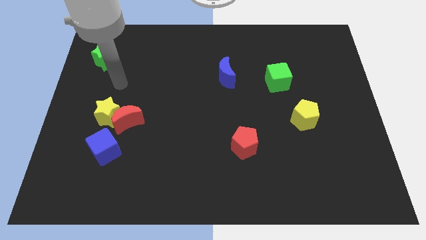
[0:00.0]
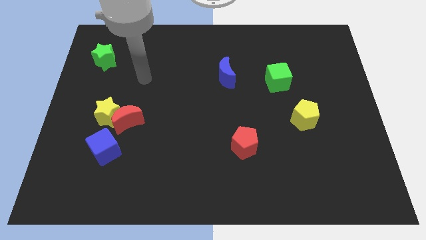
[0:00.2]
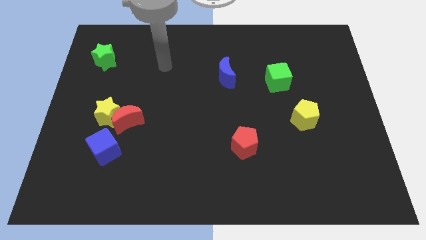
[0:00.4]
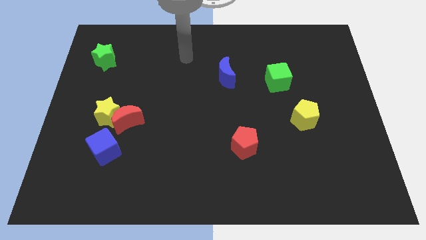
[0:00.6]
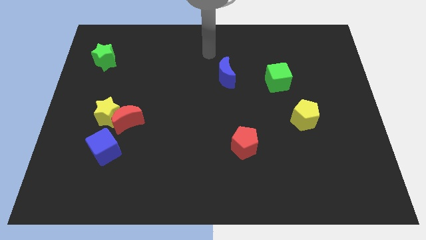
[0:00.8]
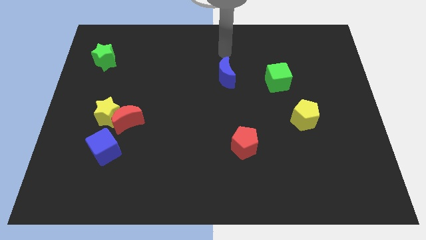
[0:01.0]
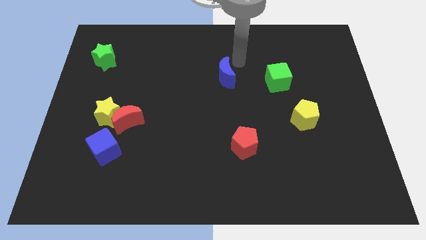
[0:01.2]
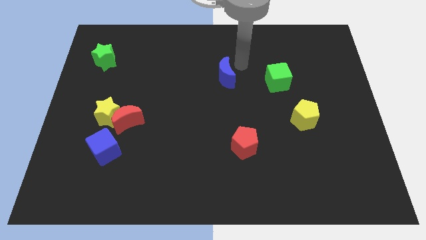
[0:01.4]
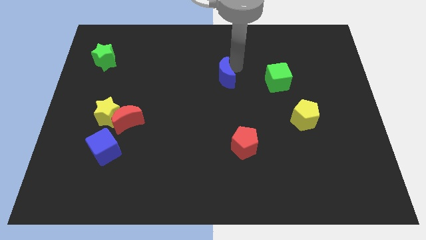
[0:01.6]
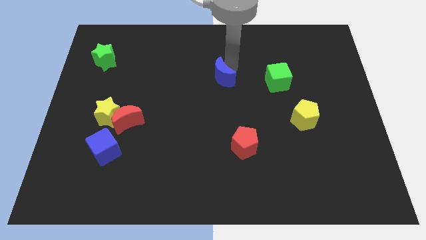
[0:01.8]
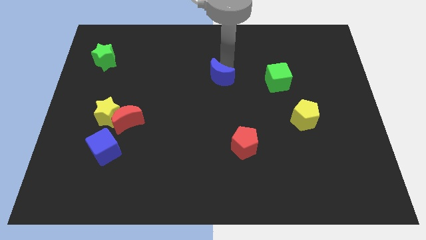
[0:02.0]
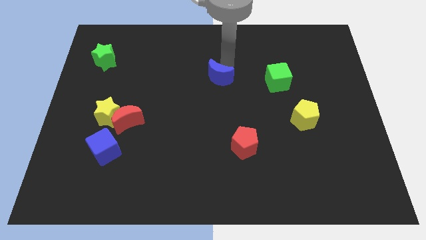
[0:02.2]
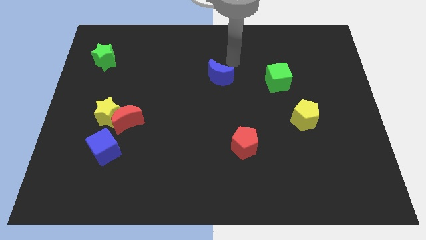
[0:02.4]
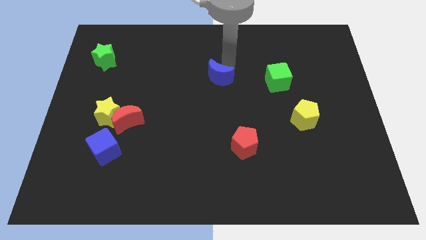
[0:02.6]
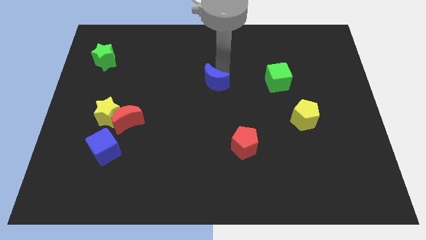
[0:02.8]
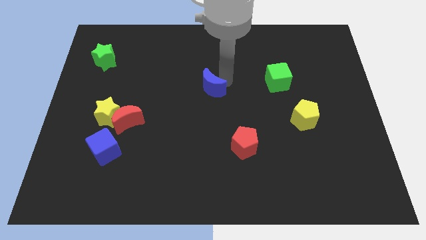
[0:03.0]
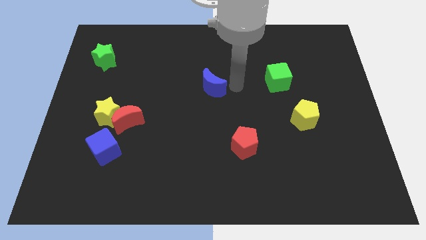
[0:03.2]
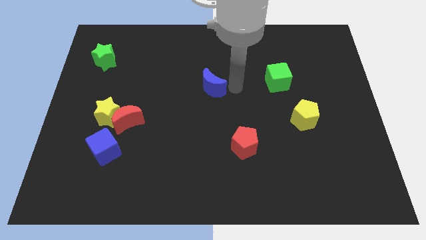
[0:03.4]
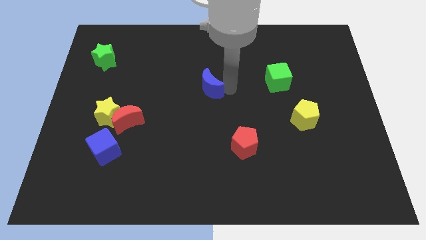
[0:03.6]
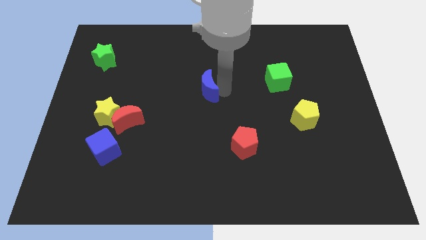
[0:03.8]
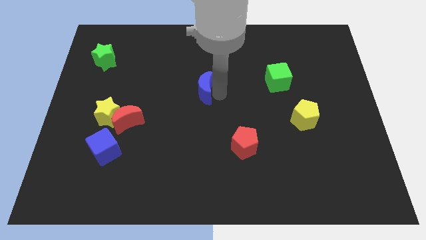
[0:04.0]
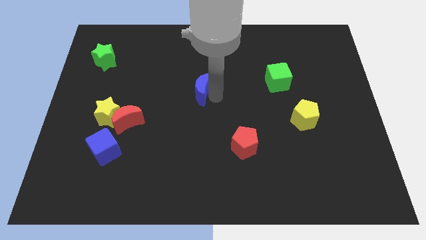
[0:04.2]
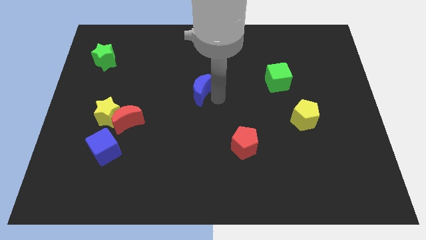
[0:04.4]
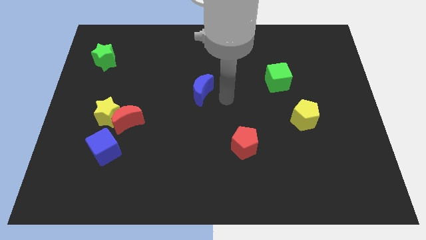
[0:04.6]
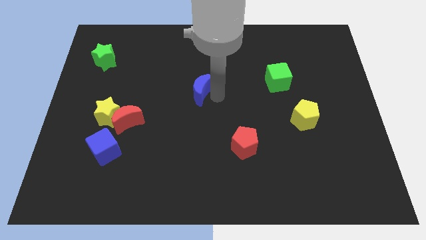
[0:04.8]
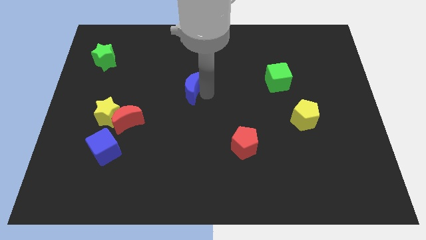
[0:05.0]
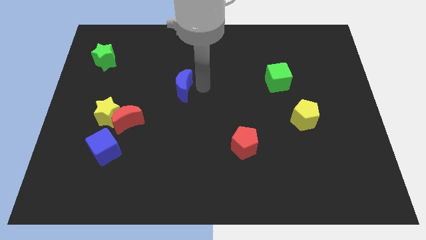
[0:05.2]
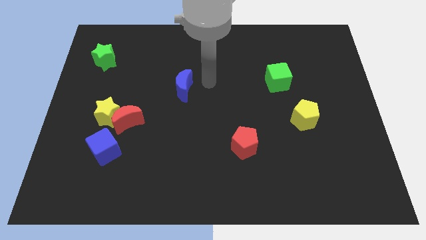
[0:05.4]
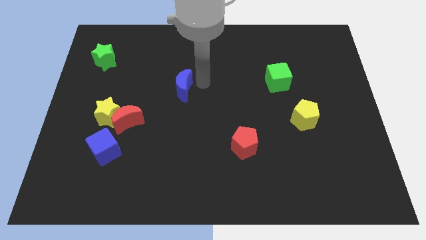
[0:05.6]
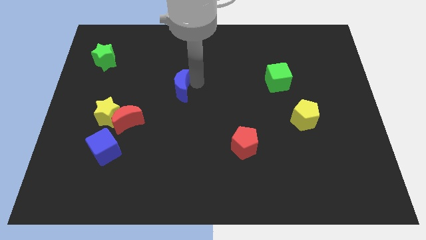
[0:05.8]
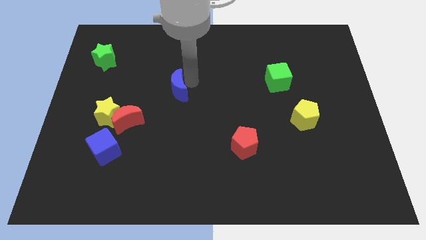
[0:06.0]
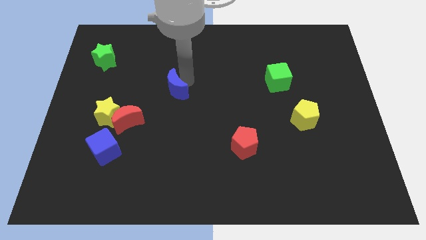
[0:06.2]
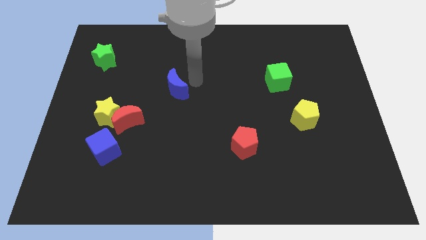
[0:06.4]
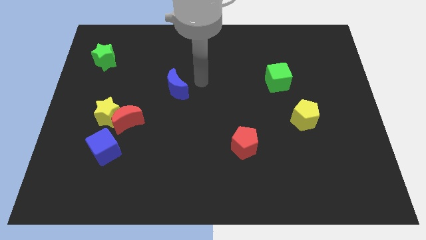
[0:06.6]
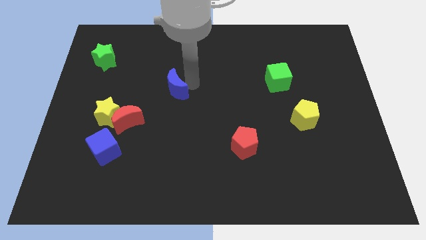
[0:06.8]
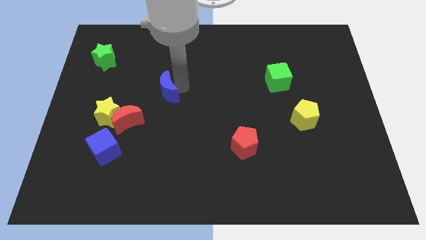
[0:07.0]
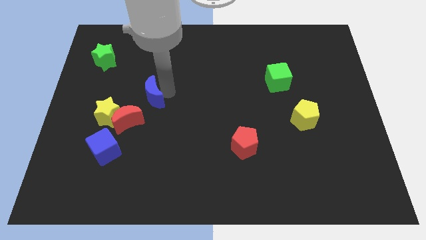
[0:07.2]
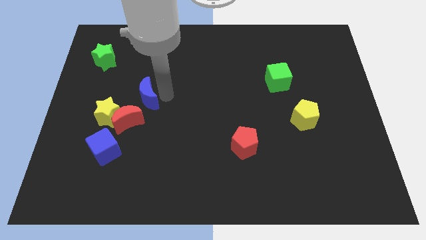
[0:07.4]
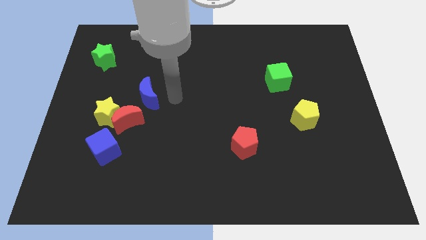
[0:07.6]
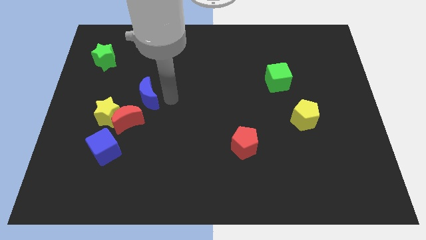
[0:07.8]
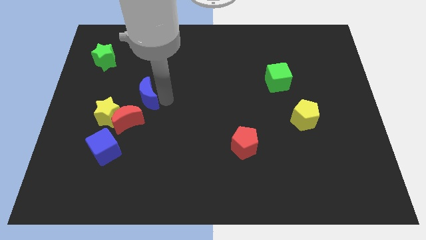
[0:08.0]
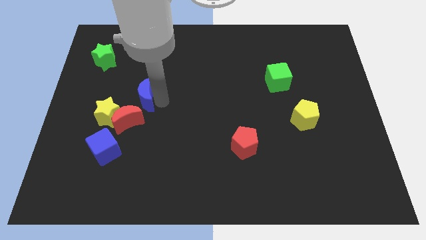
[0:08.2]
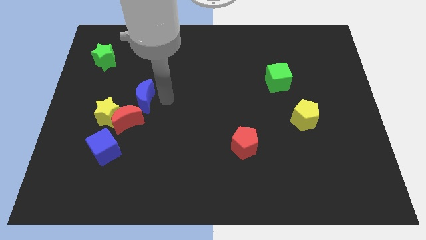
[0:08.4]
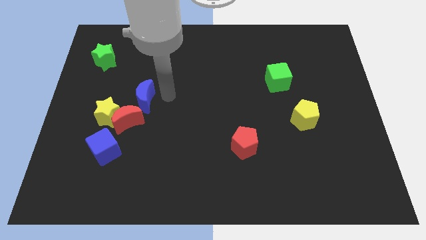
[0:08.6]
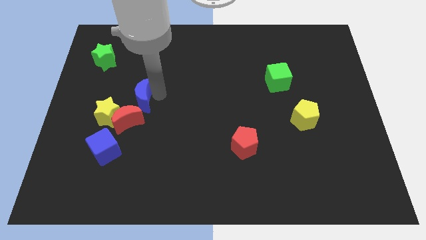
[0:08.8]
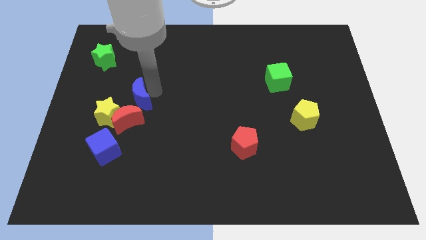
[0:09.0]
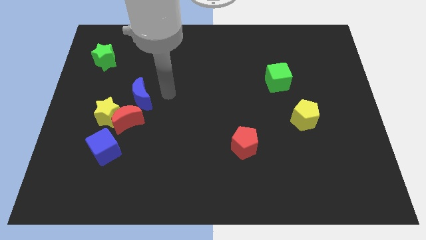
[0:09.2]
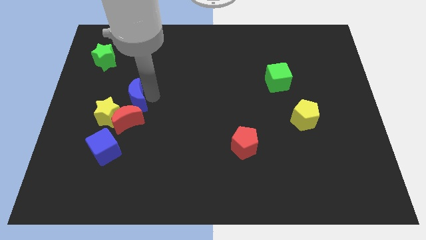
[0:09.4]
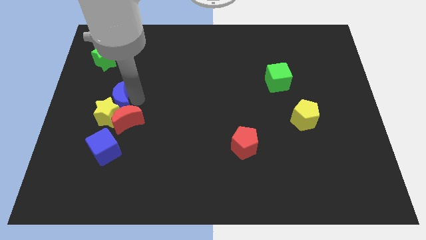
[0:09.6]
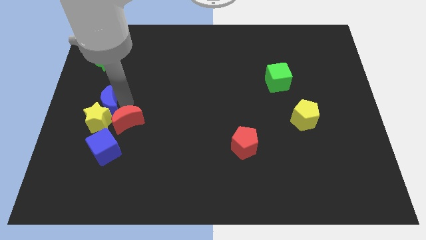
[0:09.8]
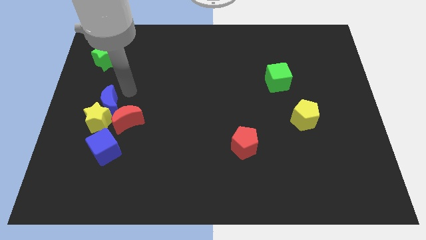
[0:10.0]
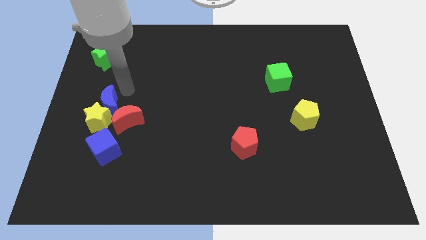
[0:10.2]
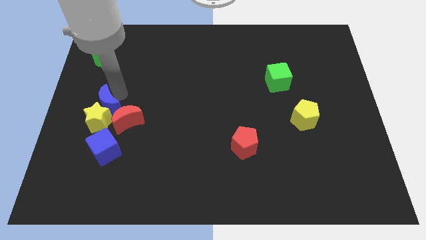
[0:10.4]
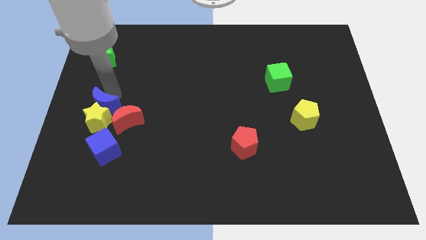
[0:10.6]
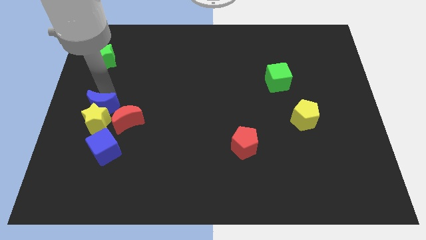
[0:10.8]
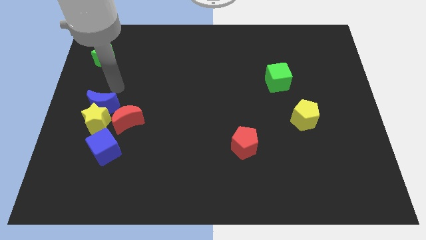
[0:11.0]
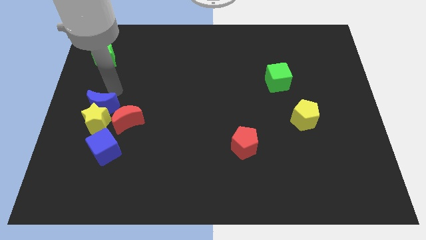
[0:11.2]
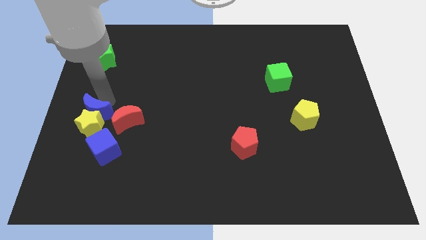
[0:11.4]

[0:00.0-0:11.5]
push the blue moon to the top left side of the blue cube

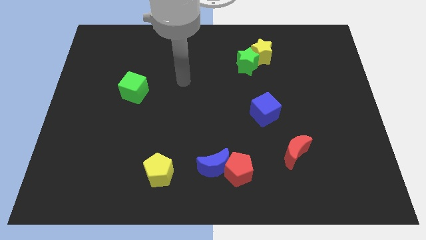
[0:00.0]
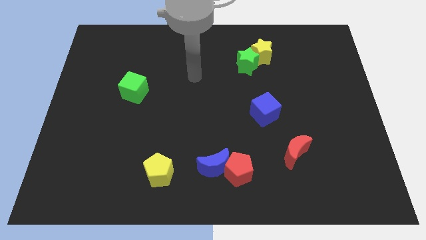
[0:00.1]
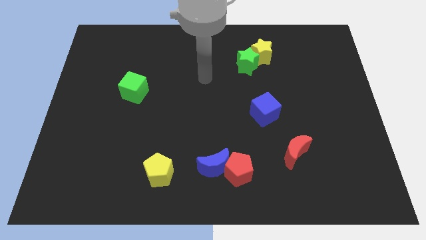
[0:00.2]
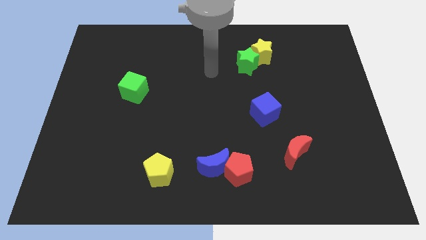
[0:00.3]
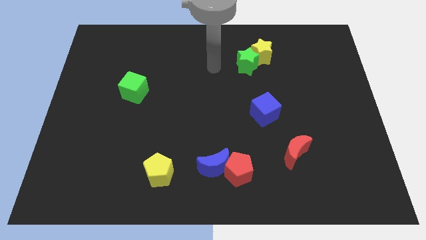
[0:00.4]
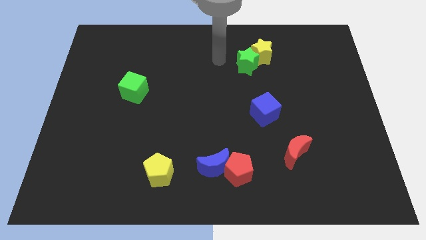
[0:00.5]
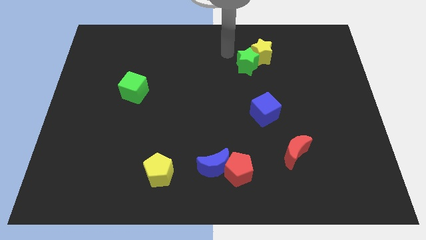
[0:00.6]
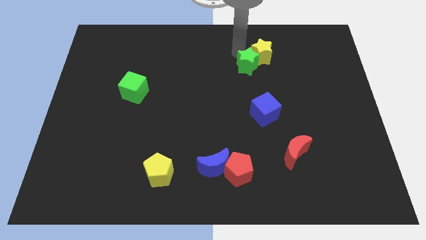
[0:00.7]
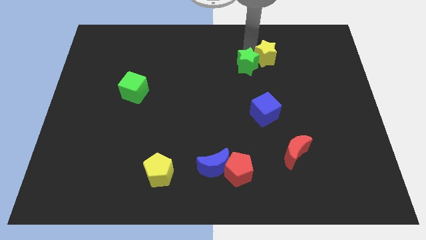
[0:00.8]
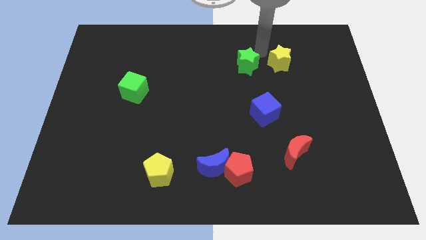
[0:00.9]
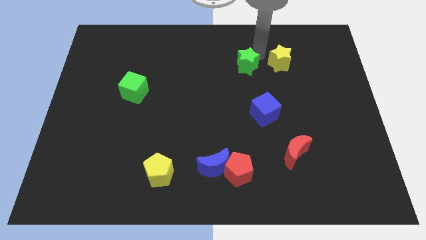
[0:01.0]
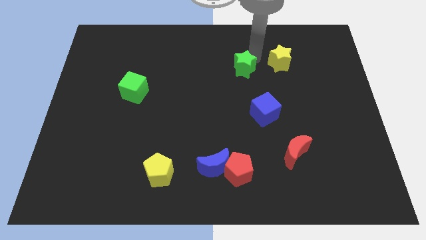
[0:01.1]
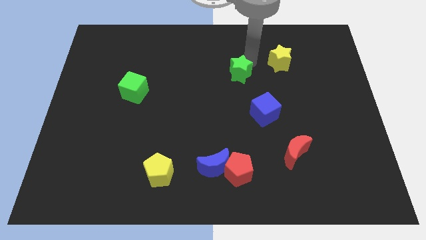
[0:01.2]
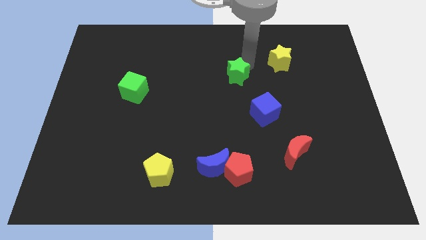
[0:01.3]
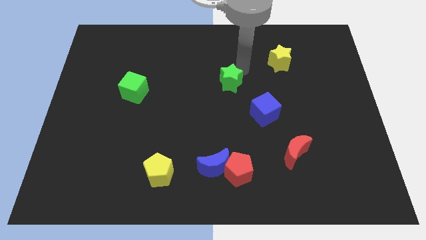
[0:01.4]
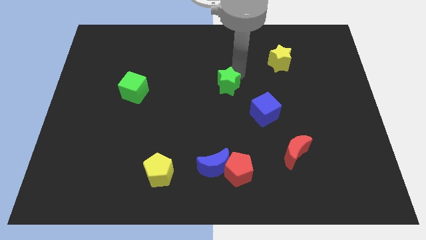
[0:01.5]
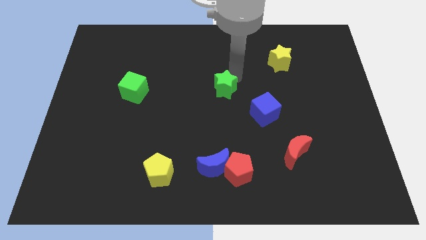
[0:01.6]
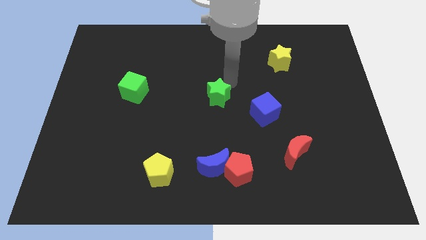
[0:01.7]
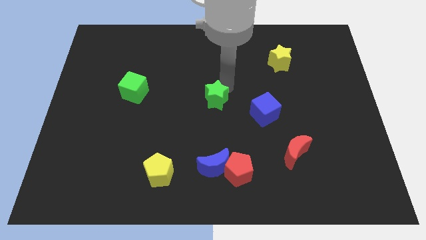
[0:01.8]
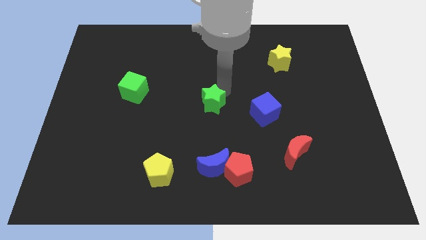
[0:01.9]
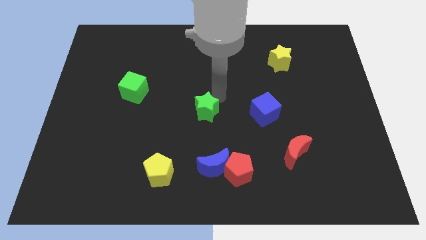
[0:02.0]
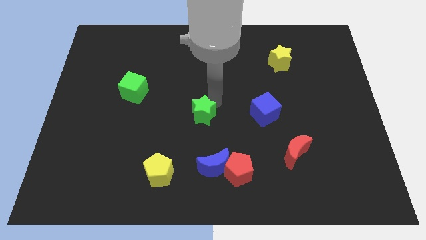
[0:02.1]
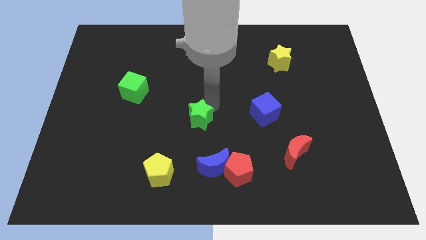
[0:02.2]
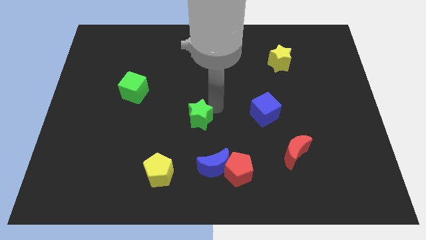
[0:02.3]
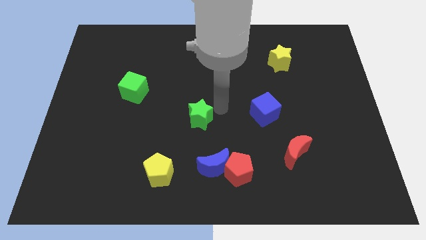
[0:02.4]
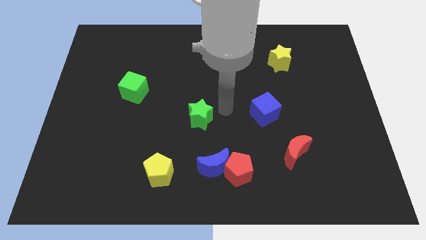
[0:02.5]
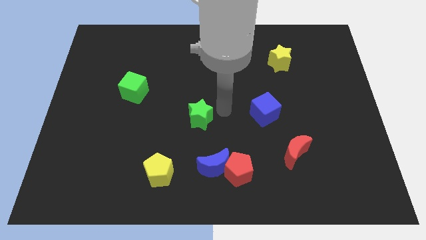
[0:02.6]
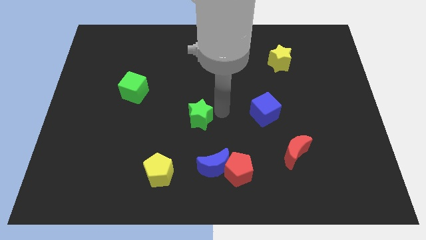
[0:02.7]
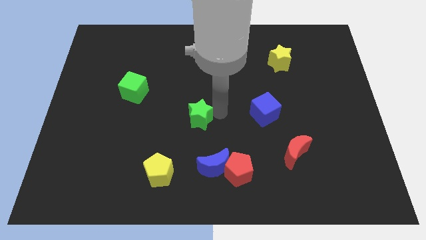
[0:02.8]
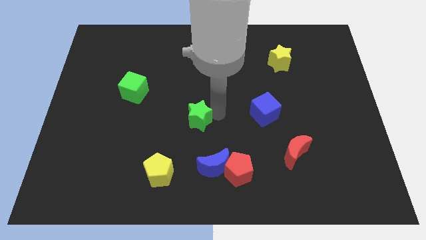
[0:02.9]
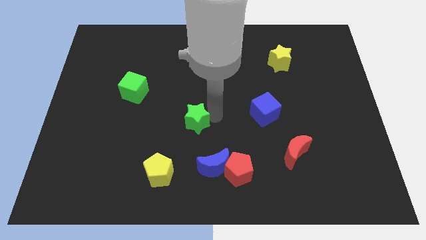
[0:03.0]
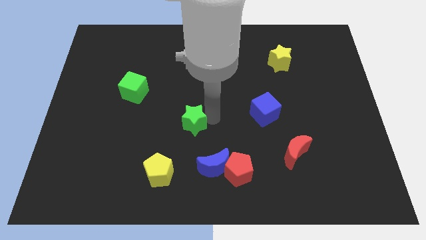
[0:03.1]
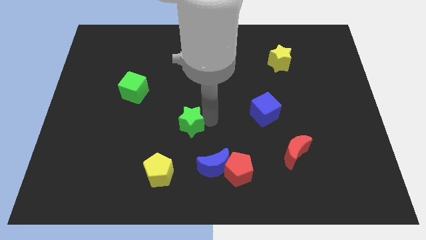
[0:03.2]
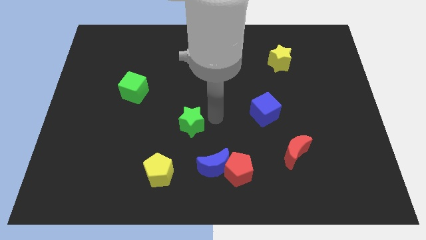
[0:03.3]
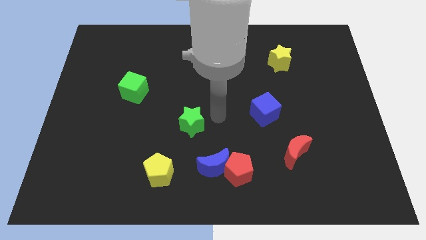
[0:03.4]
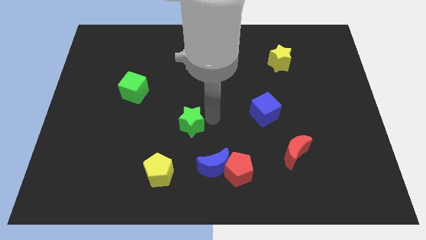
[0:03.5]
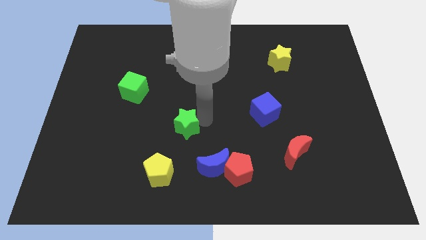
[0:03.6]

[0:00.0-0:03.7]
move the green star to the top of the yellow pentagon
